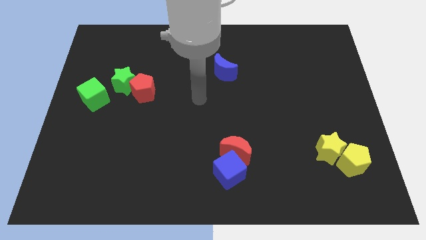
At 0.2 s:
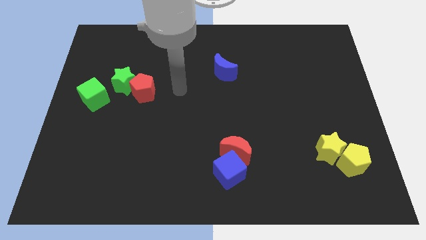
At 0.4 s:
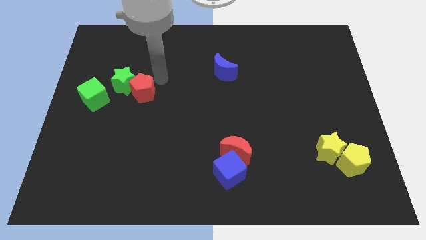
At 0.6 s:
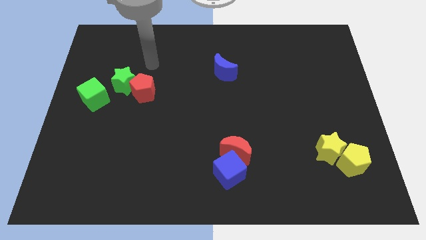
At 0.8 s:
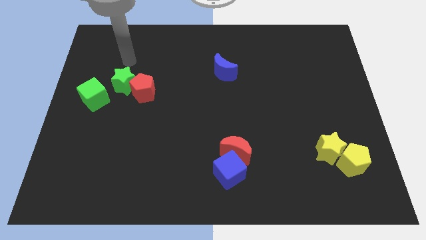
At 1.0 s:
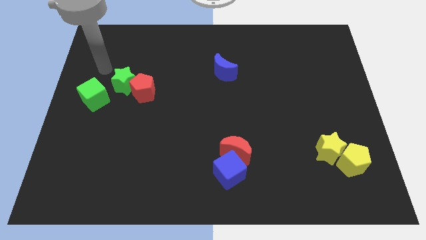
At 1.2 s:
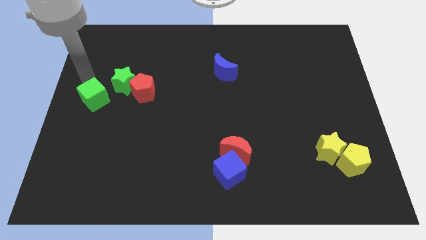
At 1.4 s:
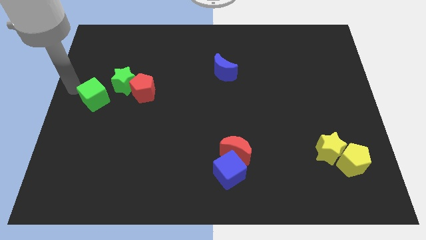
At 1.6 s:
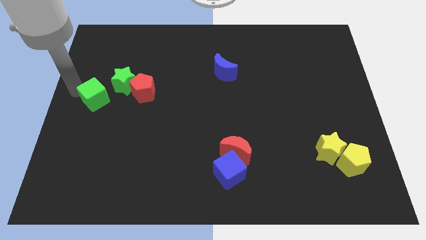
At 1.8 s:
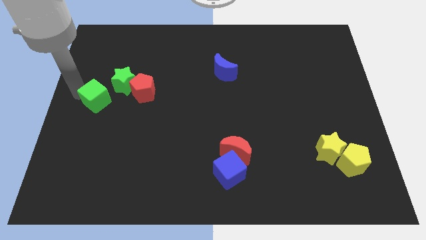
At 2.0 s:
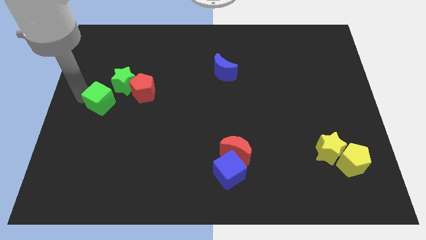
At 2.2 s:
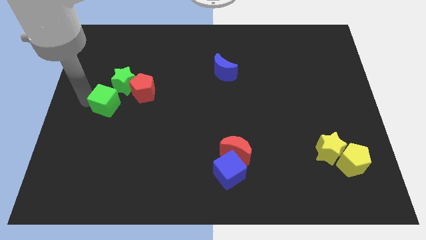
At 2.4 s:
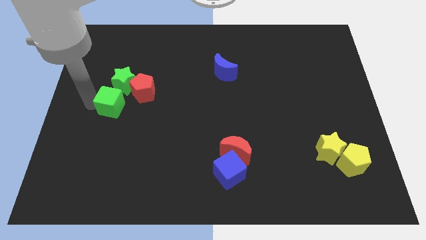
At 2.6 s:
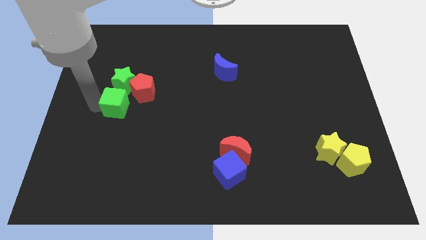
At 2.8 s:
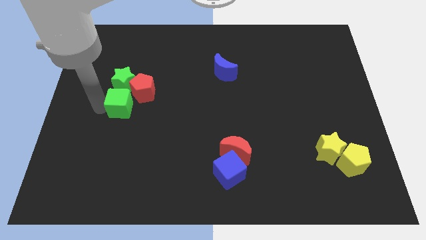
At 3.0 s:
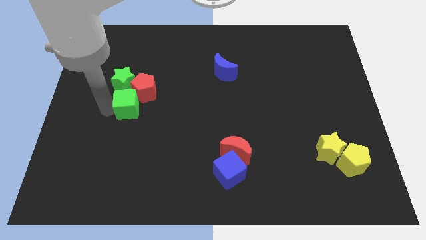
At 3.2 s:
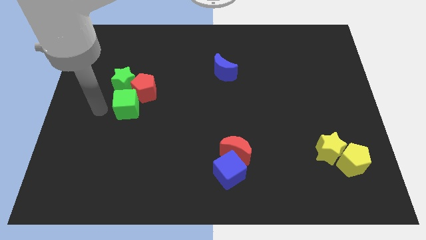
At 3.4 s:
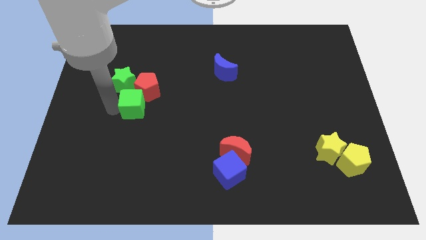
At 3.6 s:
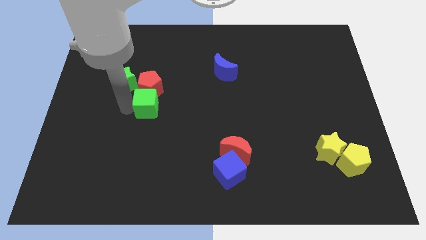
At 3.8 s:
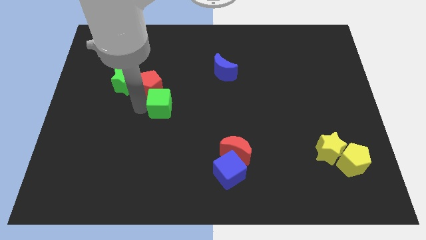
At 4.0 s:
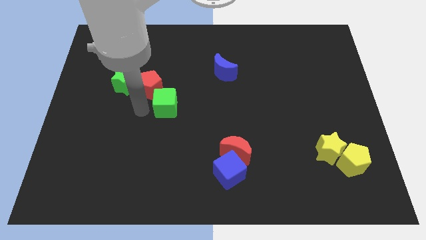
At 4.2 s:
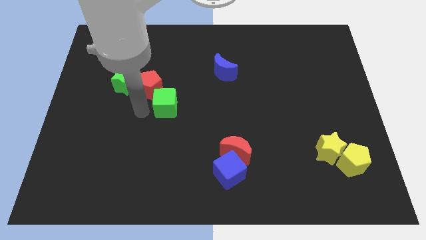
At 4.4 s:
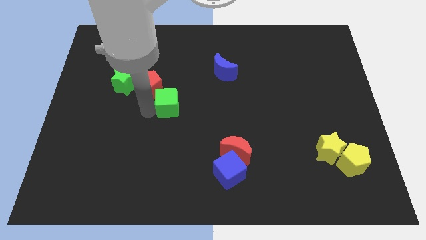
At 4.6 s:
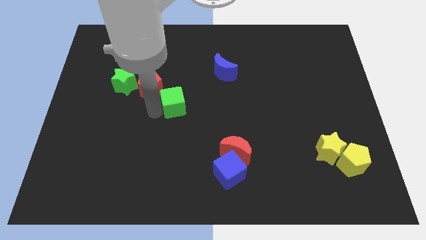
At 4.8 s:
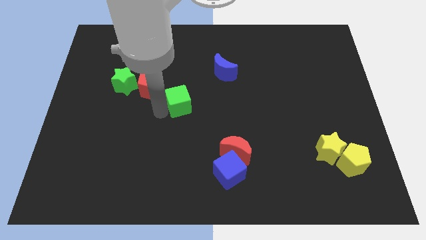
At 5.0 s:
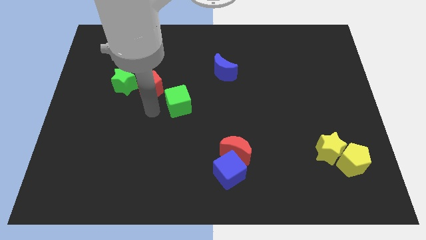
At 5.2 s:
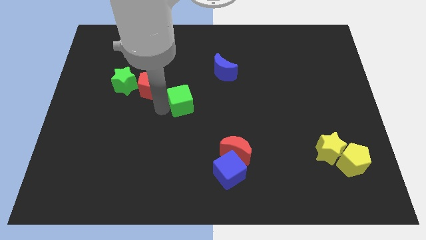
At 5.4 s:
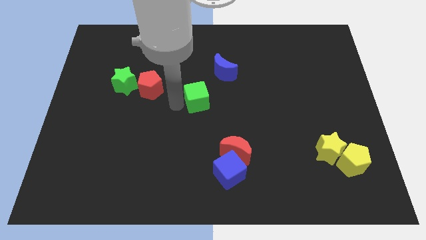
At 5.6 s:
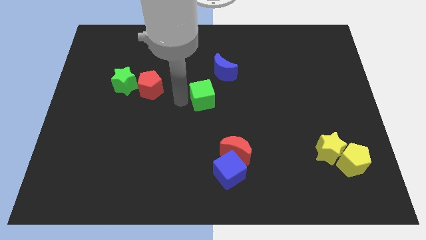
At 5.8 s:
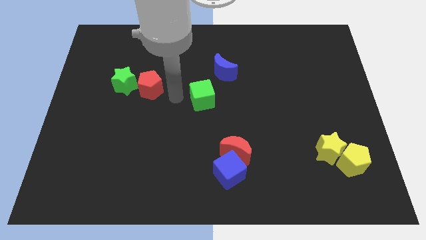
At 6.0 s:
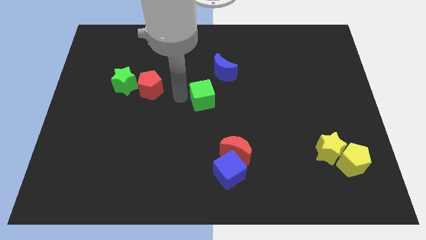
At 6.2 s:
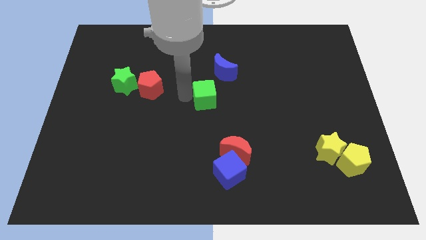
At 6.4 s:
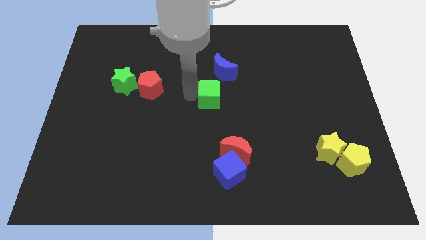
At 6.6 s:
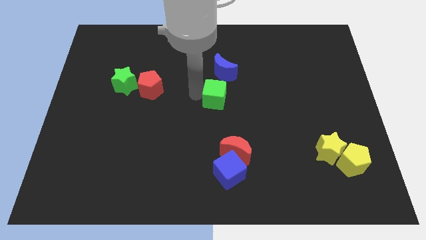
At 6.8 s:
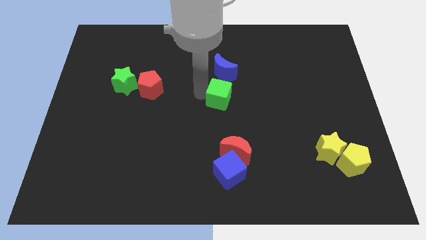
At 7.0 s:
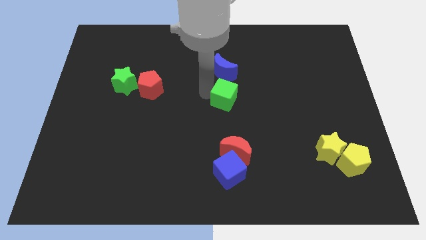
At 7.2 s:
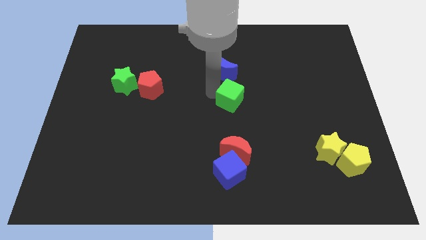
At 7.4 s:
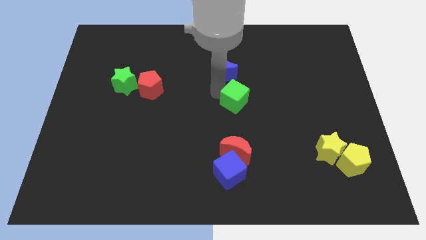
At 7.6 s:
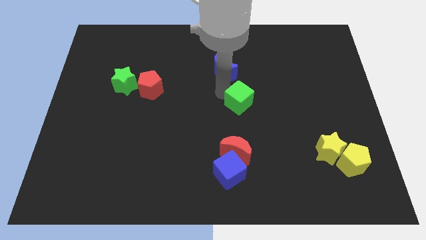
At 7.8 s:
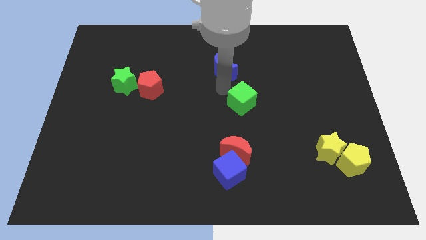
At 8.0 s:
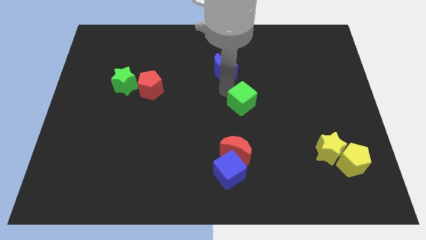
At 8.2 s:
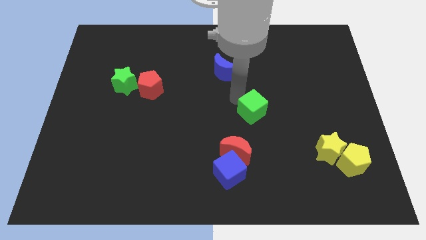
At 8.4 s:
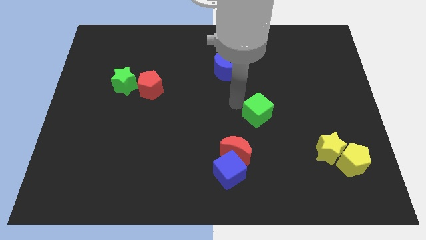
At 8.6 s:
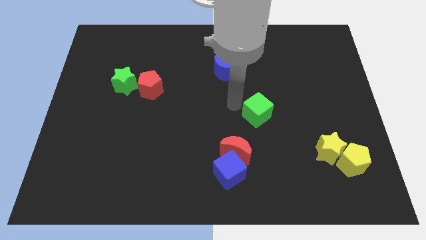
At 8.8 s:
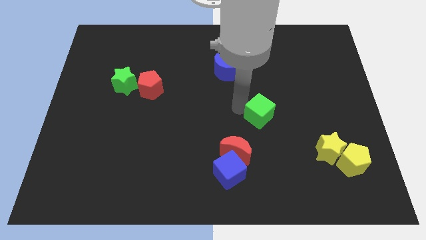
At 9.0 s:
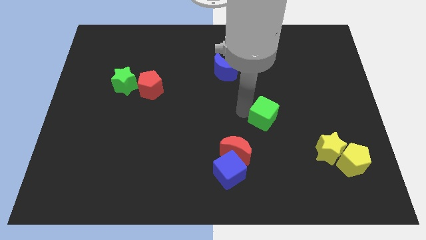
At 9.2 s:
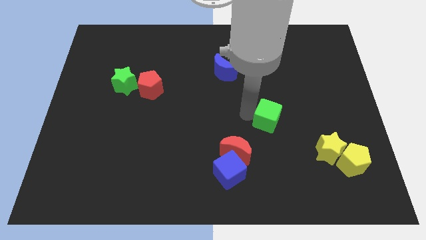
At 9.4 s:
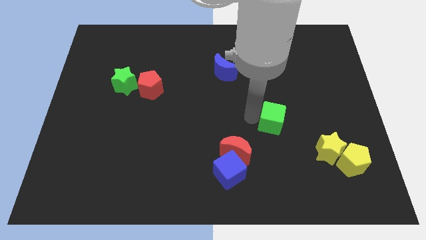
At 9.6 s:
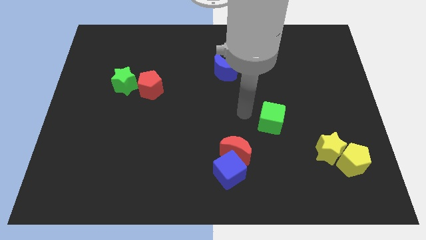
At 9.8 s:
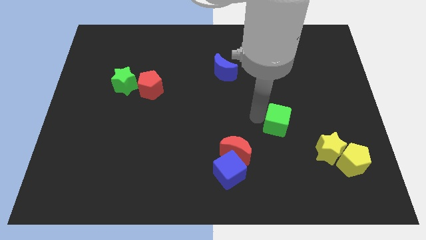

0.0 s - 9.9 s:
move the green cube to the top left side of the yellow star

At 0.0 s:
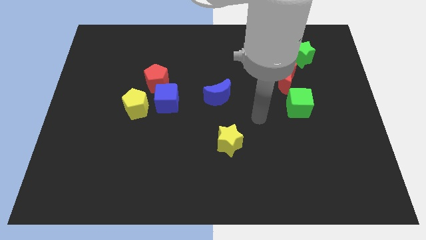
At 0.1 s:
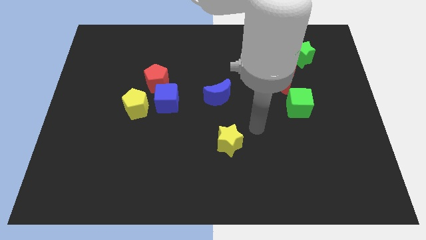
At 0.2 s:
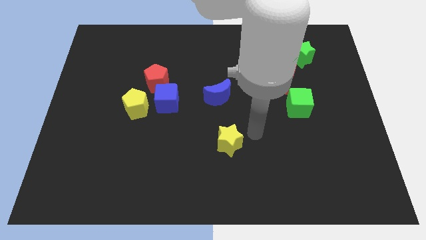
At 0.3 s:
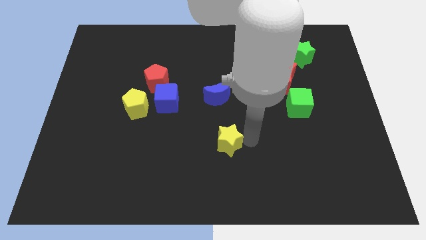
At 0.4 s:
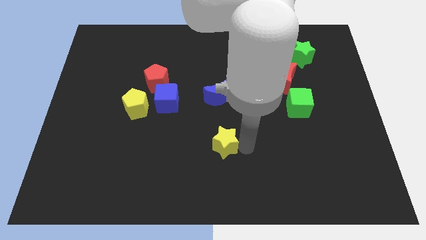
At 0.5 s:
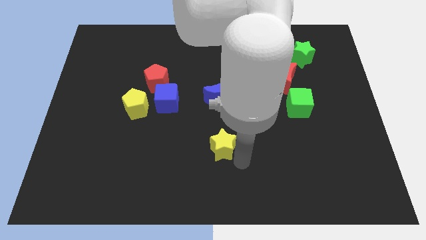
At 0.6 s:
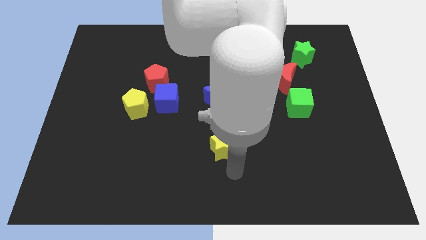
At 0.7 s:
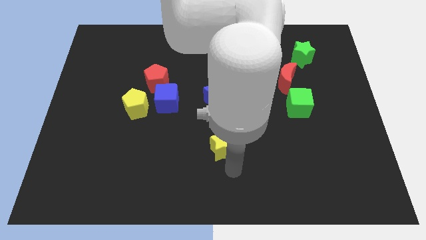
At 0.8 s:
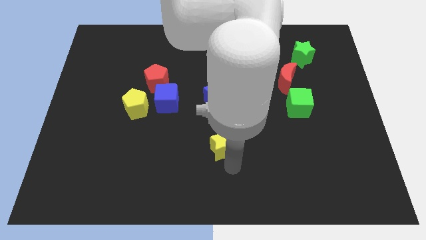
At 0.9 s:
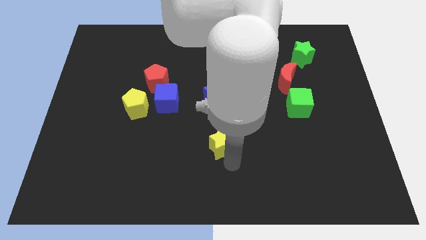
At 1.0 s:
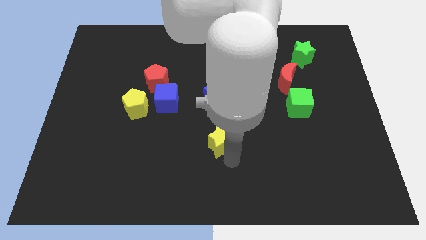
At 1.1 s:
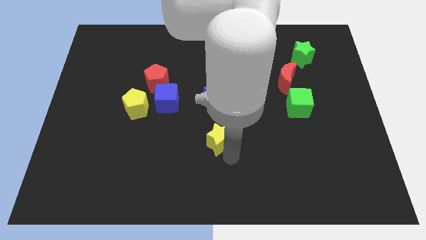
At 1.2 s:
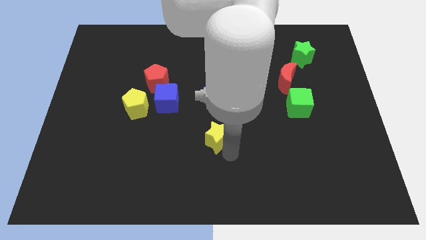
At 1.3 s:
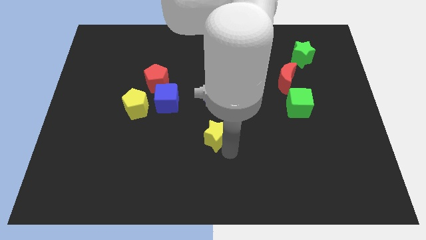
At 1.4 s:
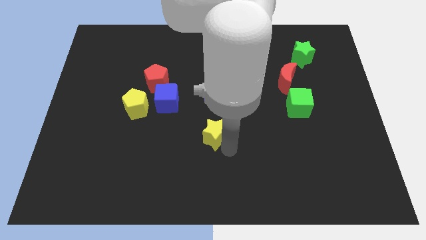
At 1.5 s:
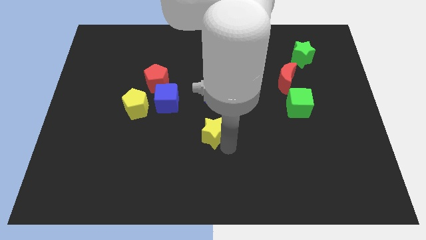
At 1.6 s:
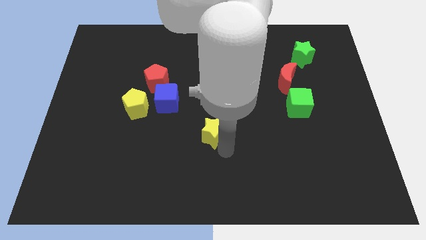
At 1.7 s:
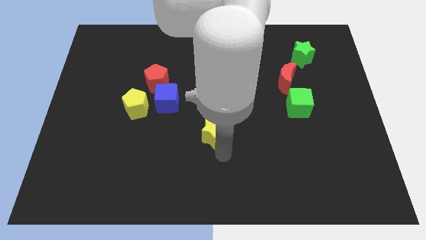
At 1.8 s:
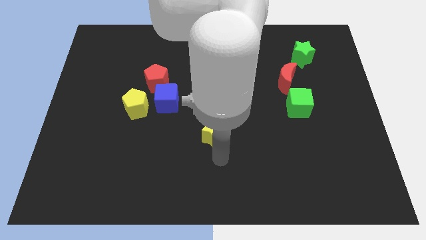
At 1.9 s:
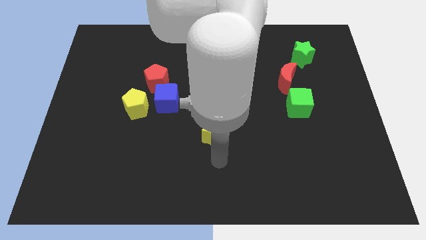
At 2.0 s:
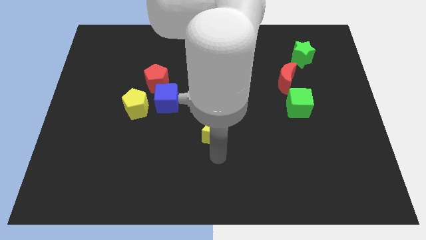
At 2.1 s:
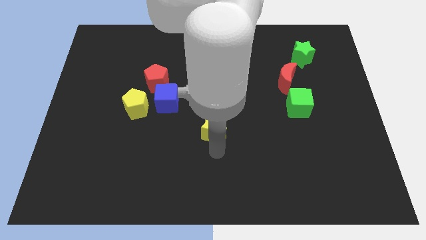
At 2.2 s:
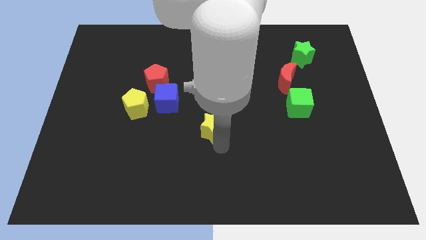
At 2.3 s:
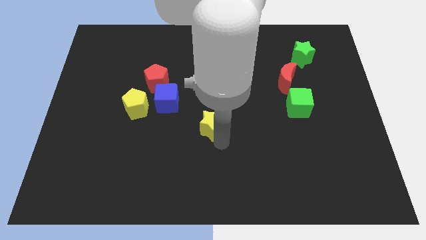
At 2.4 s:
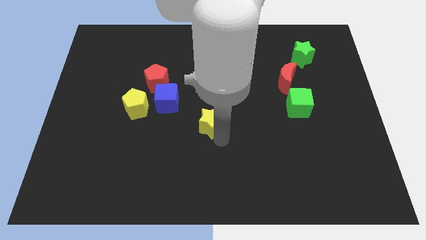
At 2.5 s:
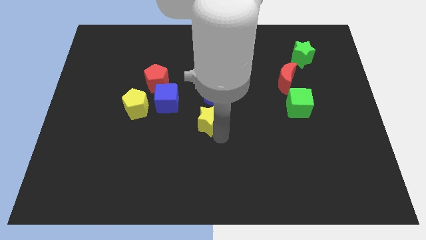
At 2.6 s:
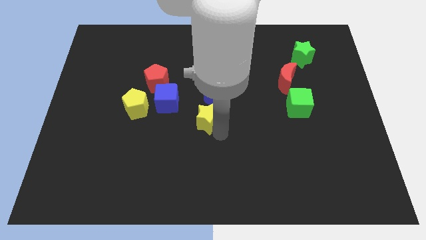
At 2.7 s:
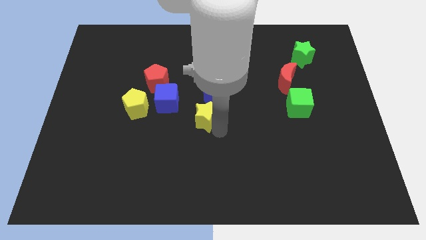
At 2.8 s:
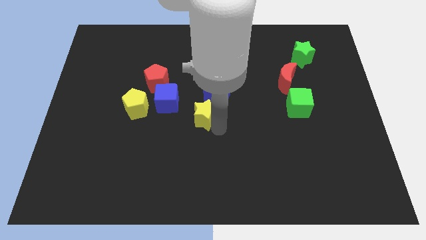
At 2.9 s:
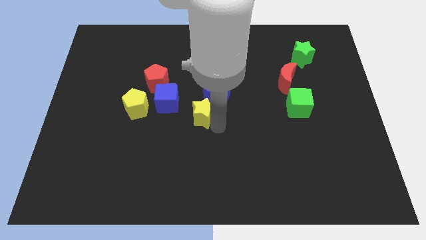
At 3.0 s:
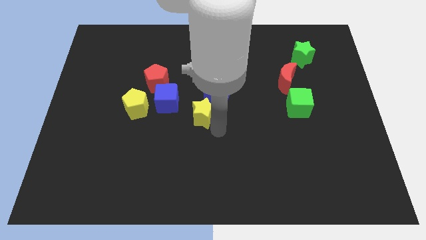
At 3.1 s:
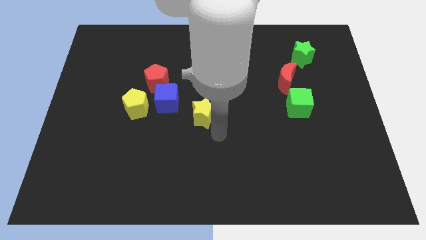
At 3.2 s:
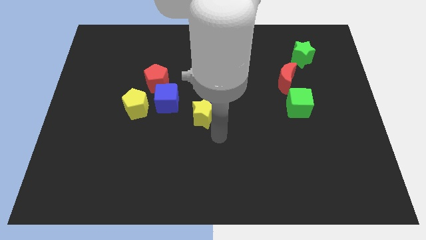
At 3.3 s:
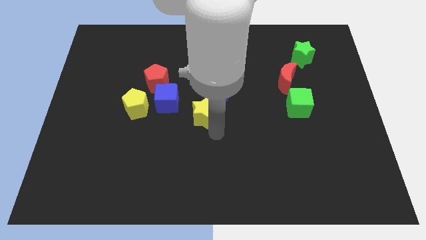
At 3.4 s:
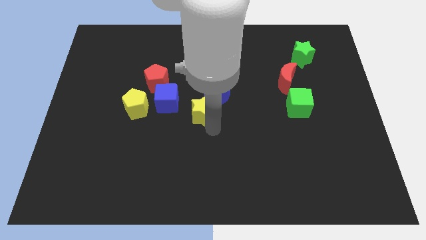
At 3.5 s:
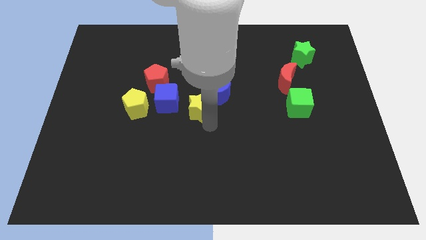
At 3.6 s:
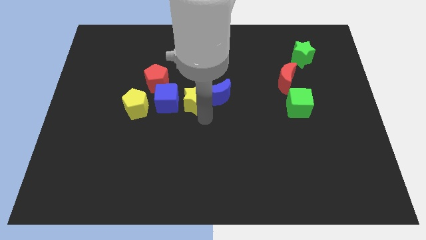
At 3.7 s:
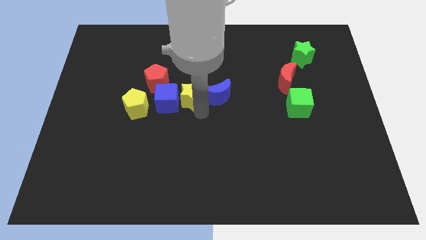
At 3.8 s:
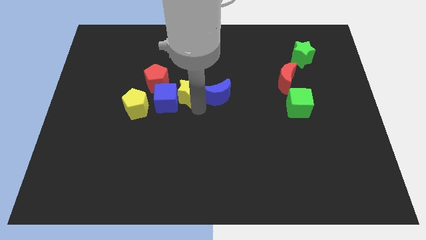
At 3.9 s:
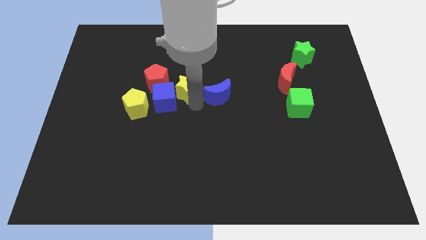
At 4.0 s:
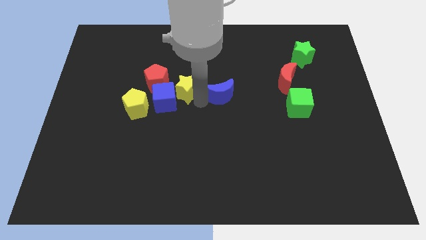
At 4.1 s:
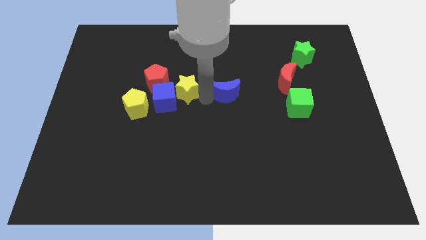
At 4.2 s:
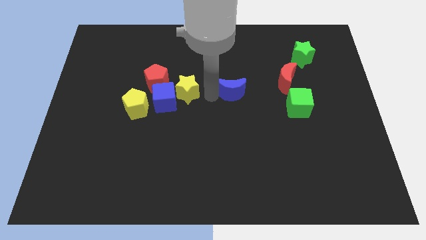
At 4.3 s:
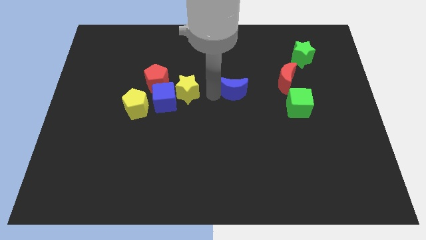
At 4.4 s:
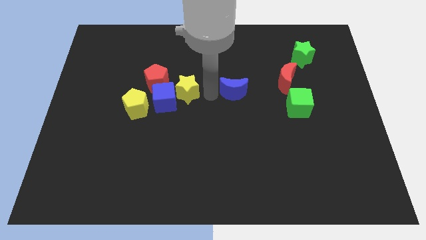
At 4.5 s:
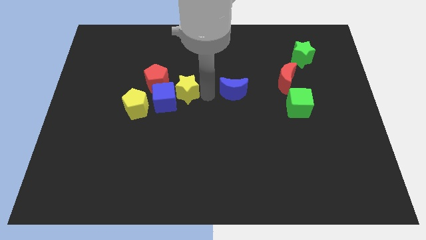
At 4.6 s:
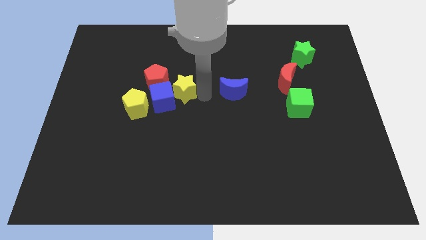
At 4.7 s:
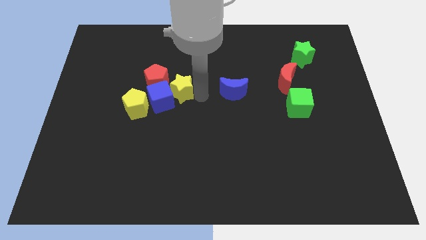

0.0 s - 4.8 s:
put the yellow star to the top right of the yellow pentagon
